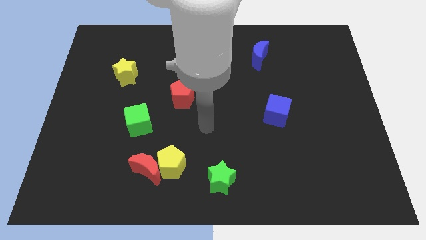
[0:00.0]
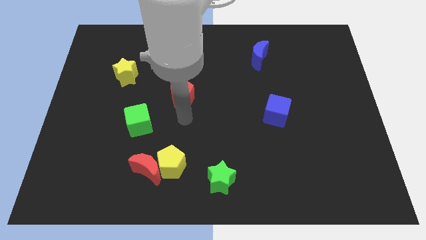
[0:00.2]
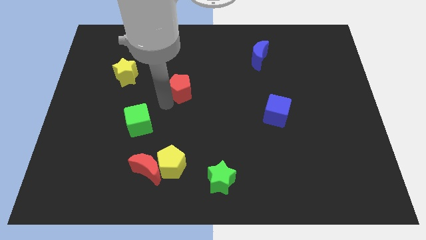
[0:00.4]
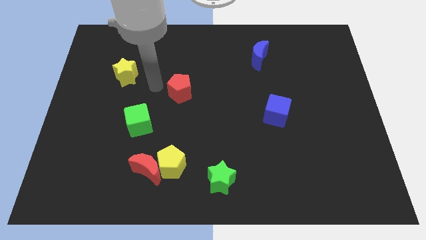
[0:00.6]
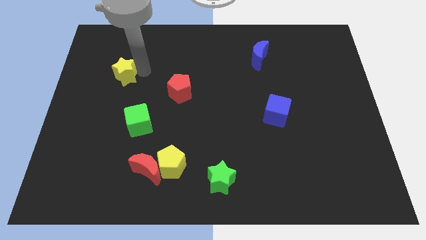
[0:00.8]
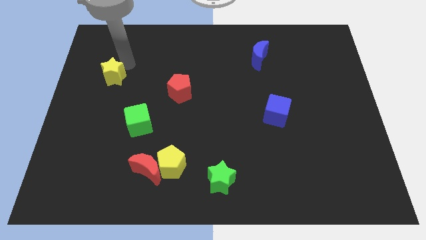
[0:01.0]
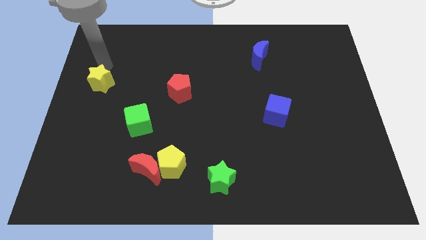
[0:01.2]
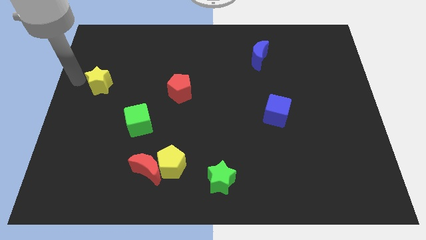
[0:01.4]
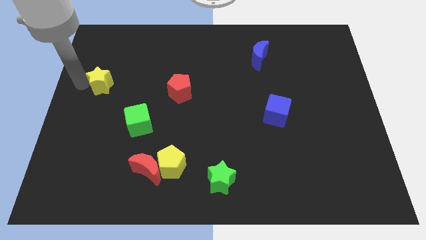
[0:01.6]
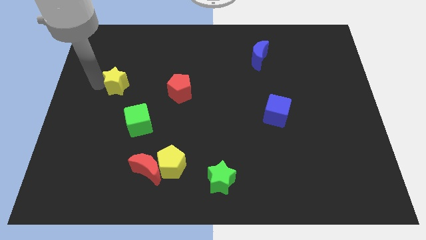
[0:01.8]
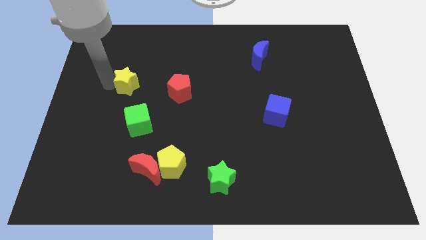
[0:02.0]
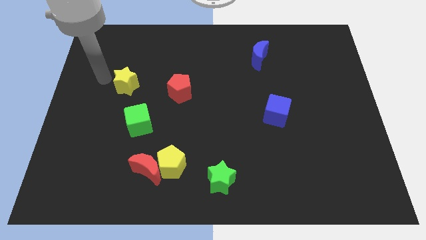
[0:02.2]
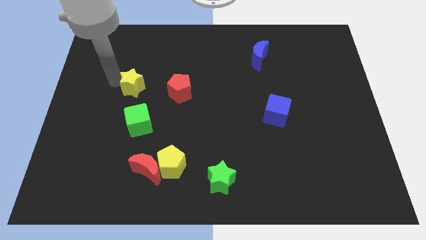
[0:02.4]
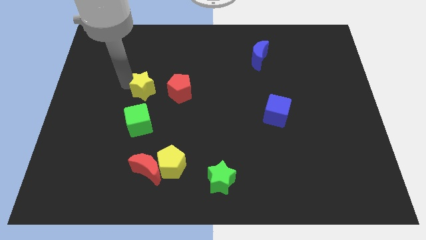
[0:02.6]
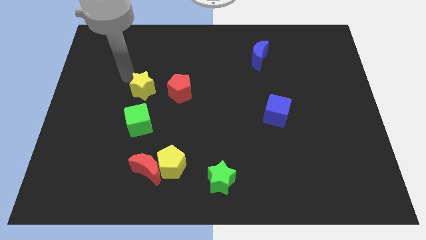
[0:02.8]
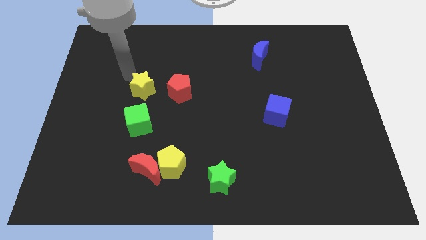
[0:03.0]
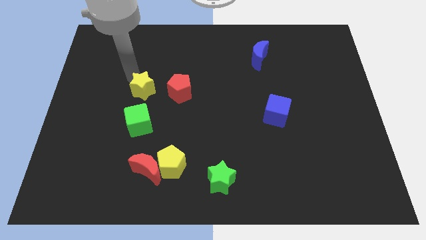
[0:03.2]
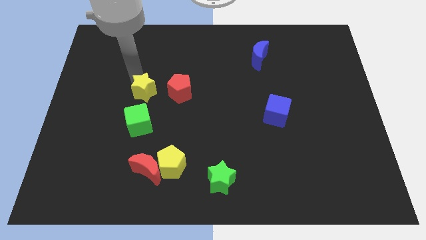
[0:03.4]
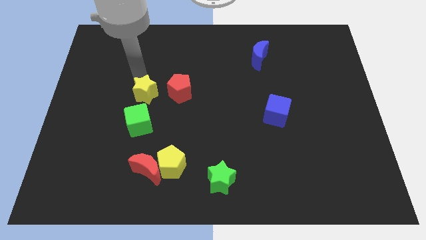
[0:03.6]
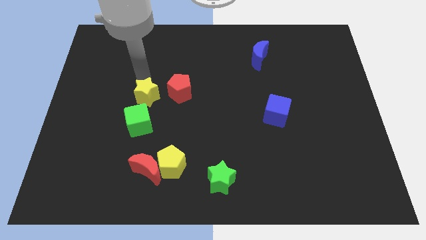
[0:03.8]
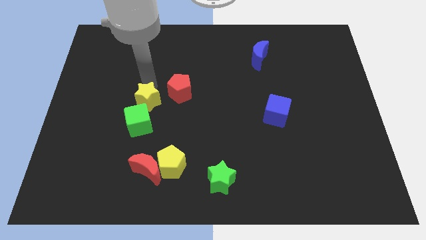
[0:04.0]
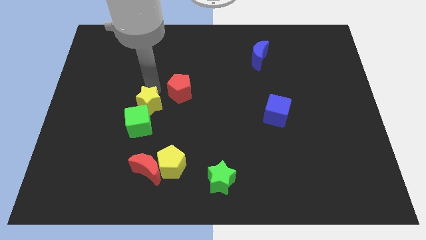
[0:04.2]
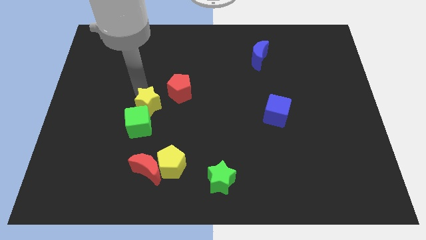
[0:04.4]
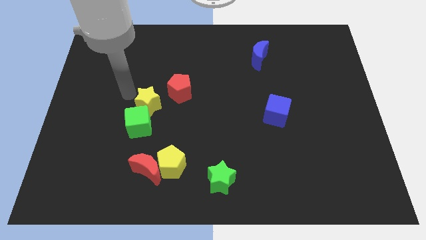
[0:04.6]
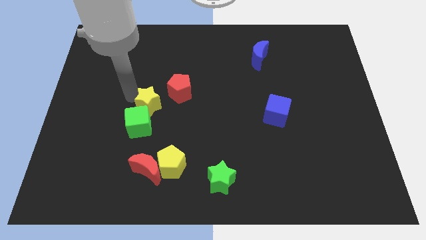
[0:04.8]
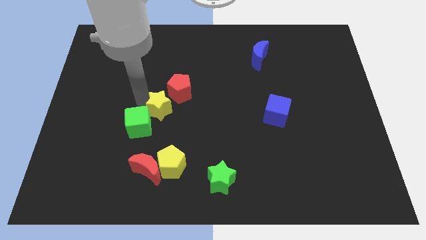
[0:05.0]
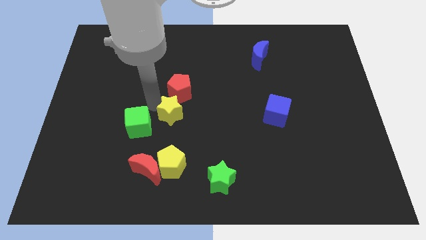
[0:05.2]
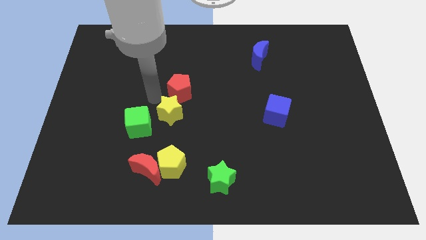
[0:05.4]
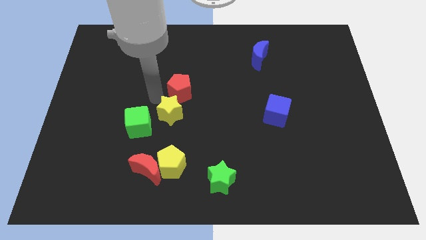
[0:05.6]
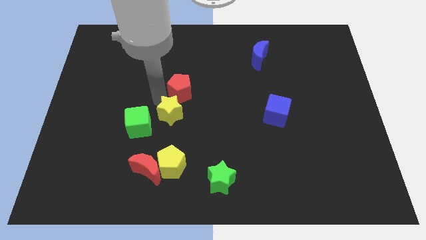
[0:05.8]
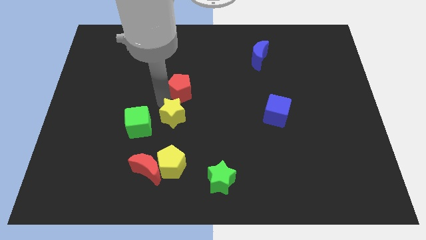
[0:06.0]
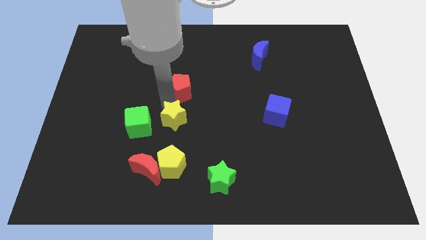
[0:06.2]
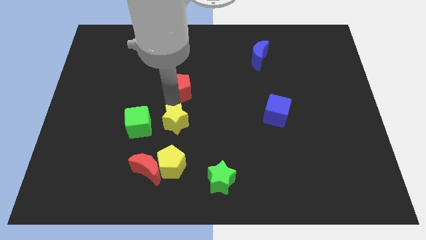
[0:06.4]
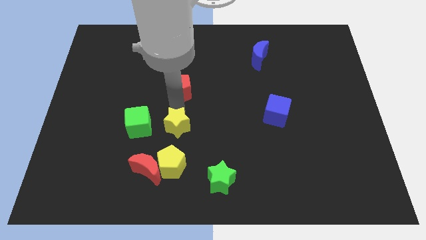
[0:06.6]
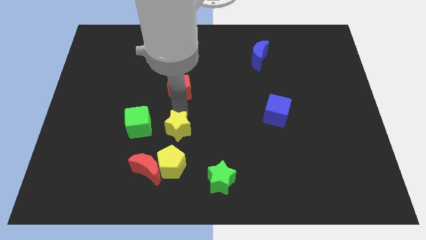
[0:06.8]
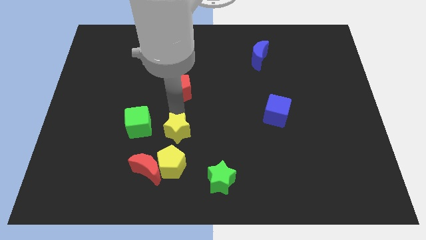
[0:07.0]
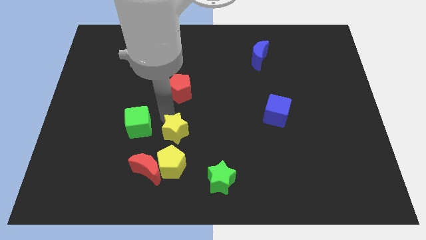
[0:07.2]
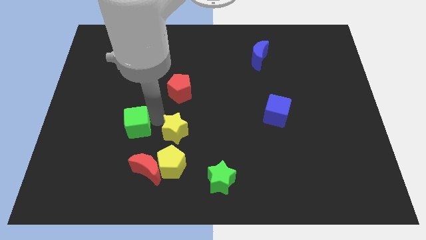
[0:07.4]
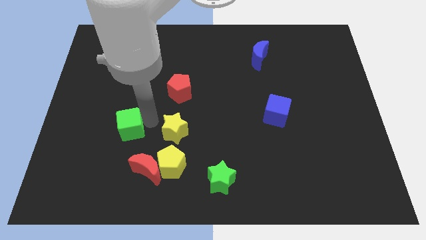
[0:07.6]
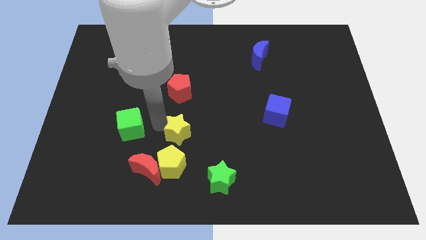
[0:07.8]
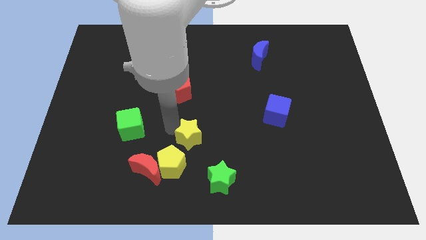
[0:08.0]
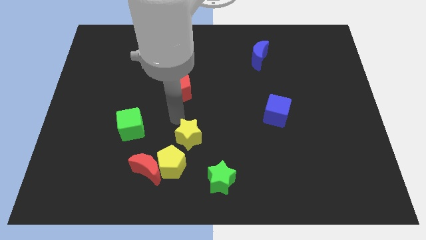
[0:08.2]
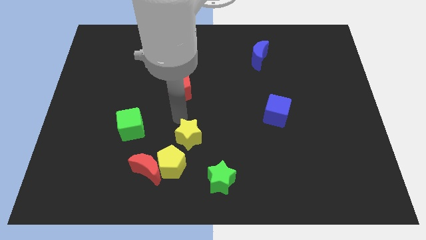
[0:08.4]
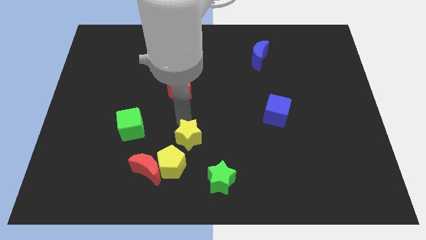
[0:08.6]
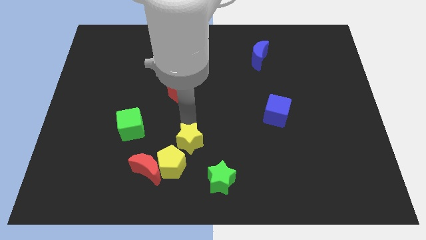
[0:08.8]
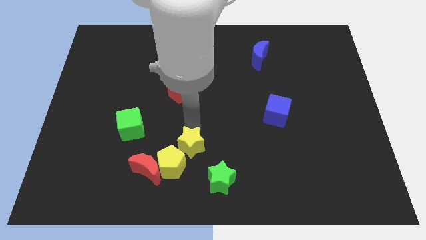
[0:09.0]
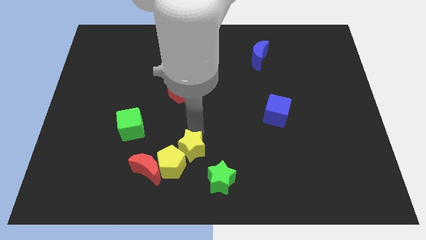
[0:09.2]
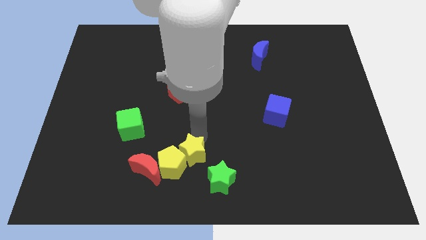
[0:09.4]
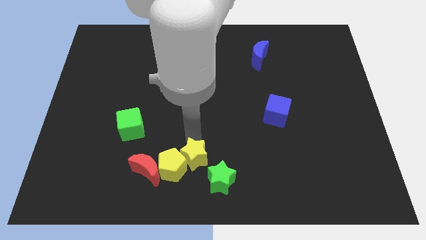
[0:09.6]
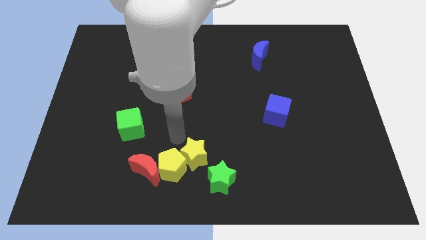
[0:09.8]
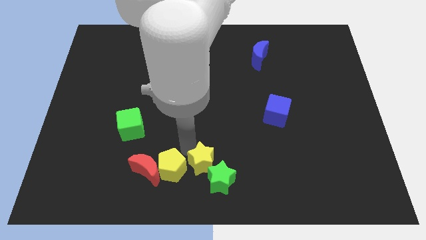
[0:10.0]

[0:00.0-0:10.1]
slide the yellow star to the green star

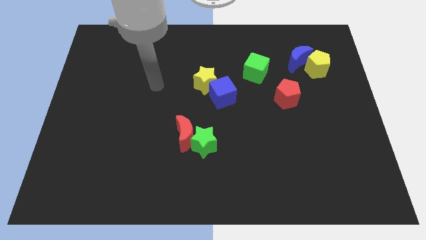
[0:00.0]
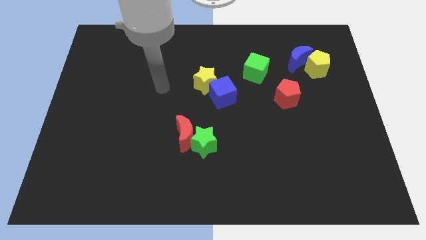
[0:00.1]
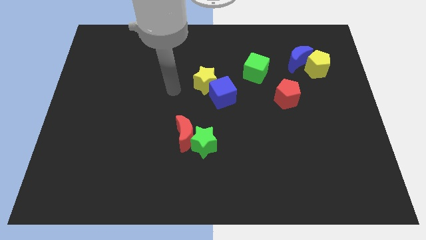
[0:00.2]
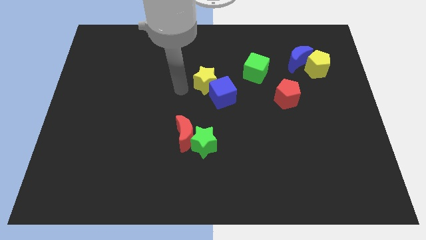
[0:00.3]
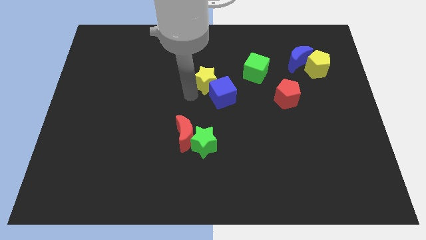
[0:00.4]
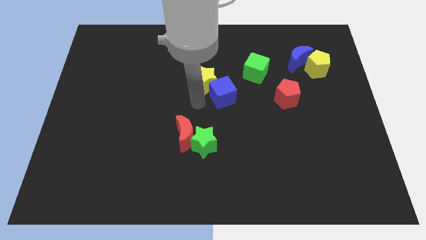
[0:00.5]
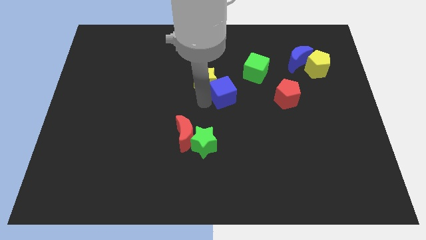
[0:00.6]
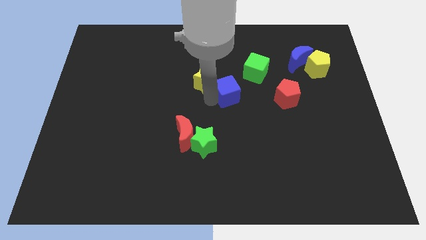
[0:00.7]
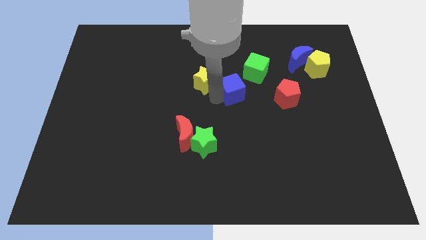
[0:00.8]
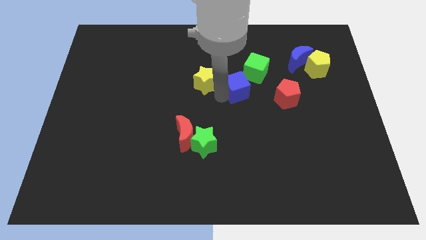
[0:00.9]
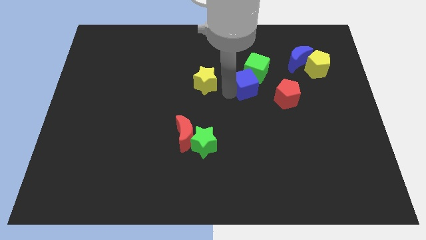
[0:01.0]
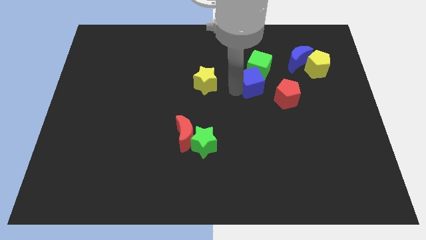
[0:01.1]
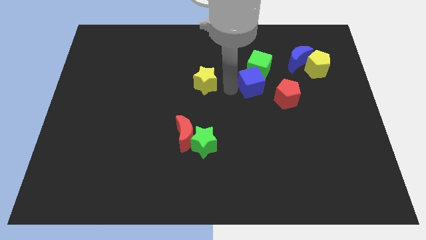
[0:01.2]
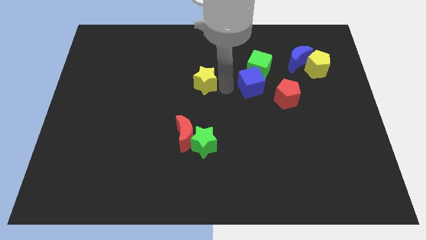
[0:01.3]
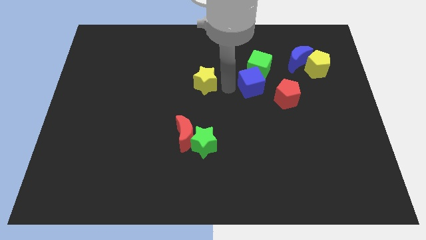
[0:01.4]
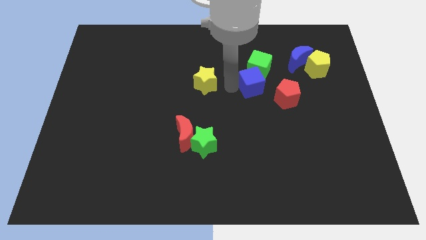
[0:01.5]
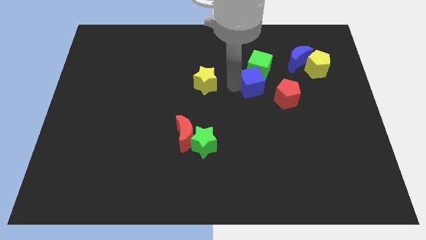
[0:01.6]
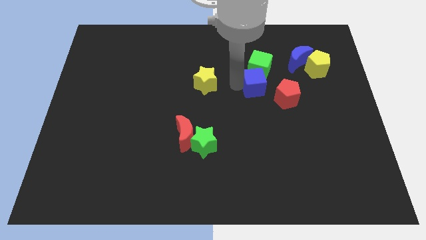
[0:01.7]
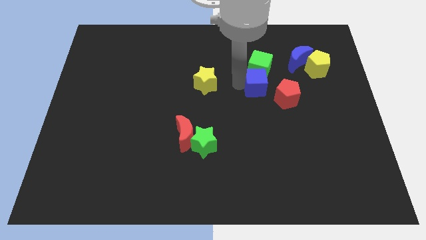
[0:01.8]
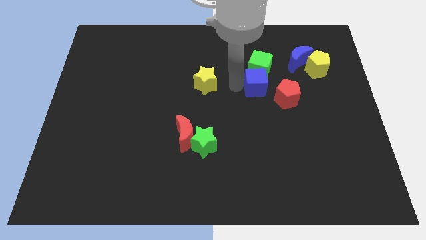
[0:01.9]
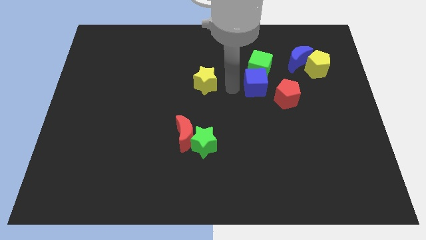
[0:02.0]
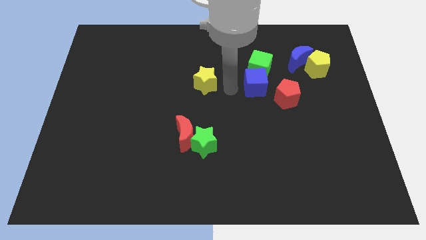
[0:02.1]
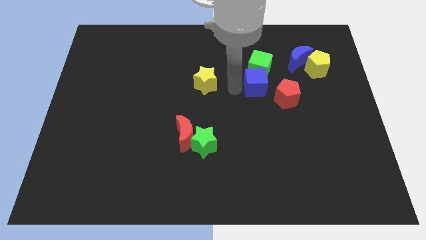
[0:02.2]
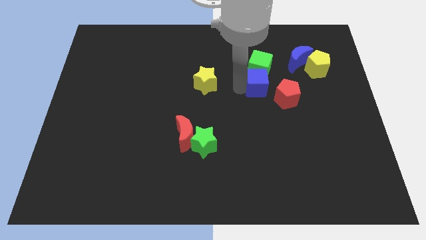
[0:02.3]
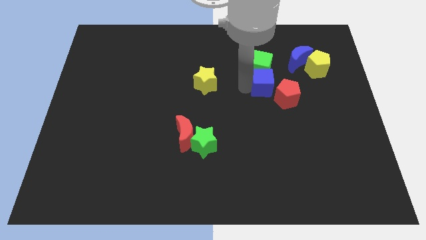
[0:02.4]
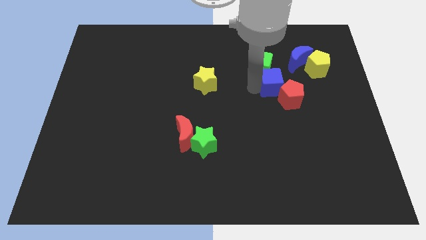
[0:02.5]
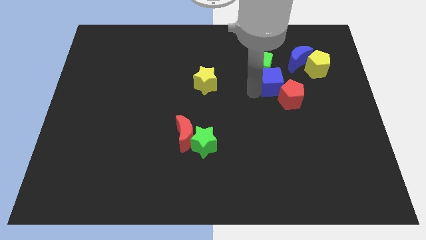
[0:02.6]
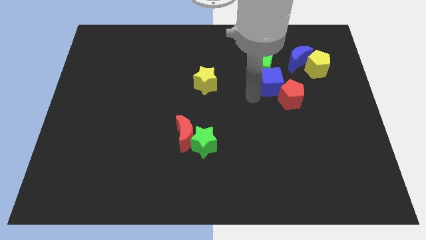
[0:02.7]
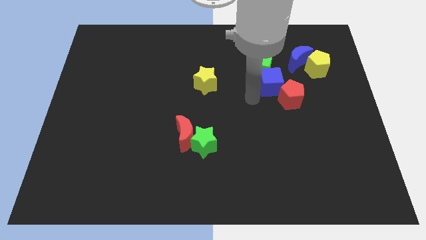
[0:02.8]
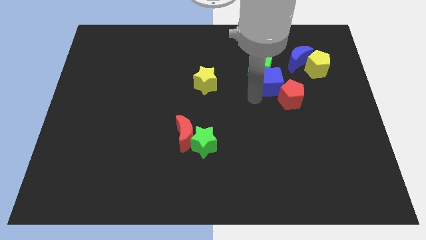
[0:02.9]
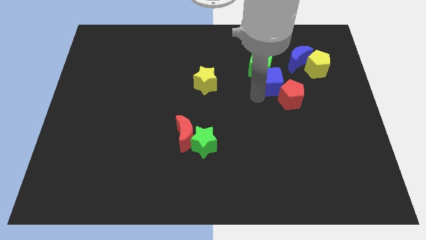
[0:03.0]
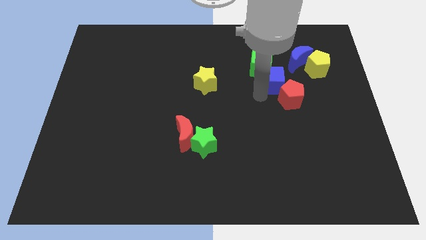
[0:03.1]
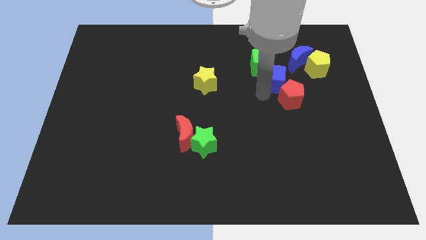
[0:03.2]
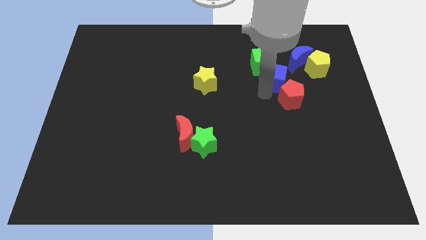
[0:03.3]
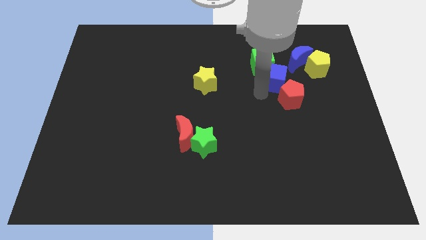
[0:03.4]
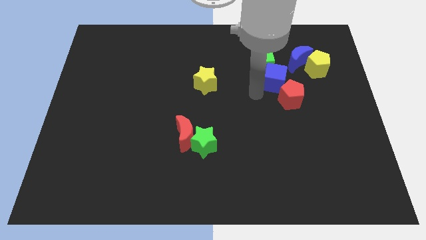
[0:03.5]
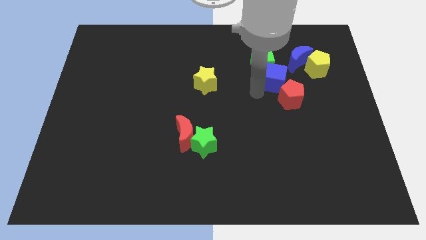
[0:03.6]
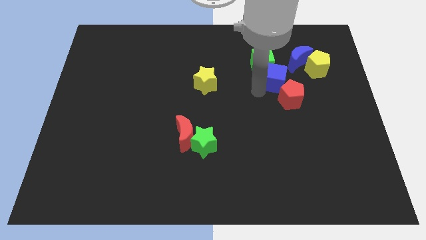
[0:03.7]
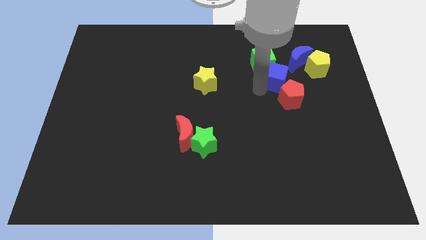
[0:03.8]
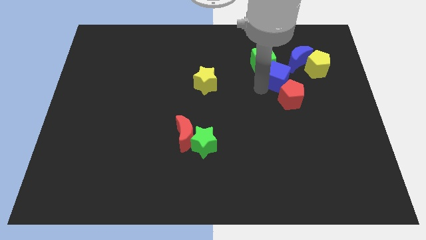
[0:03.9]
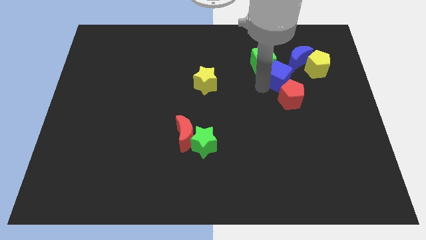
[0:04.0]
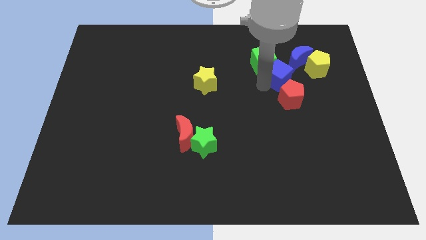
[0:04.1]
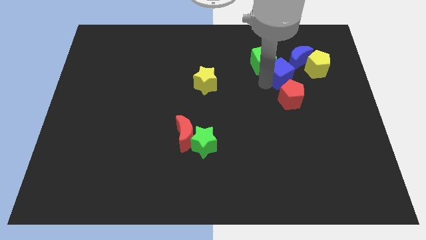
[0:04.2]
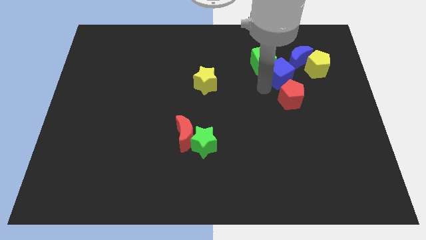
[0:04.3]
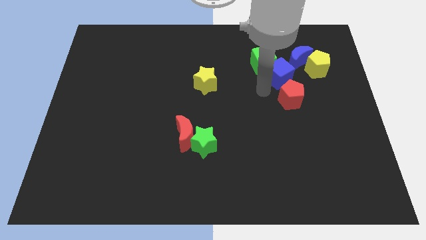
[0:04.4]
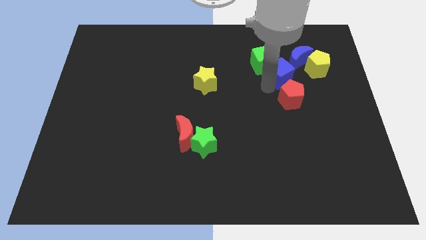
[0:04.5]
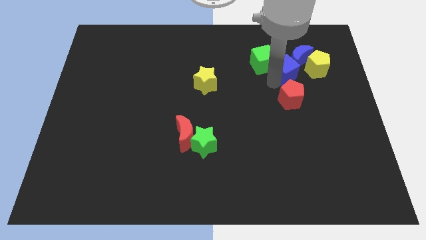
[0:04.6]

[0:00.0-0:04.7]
move the blue cube close to the blue moon
